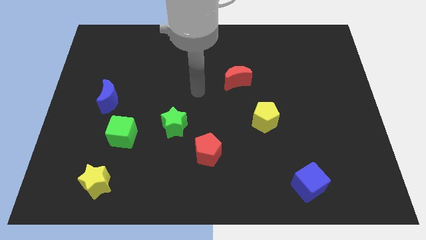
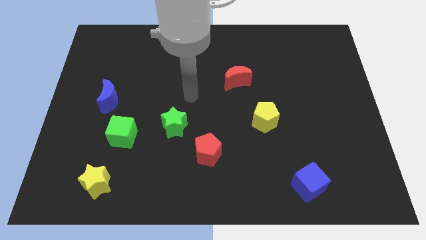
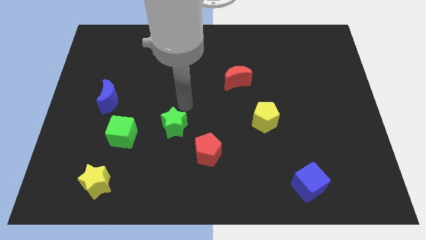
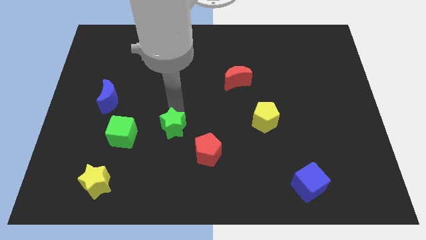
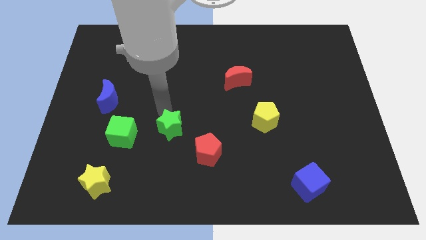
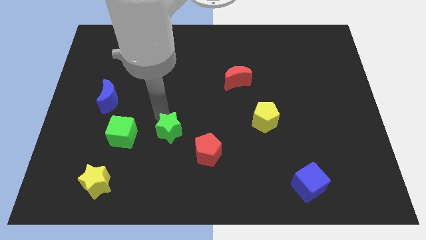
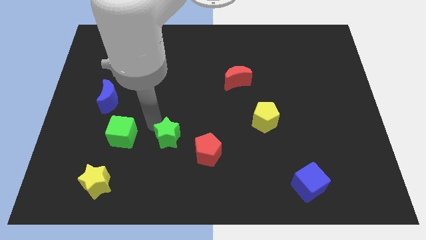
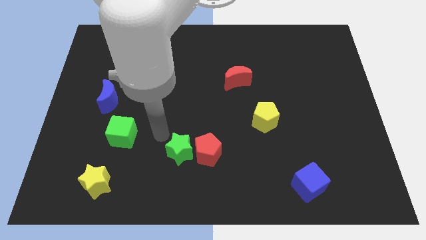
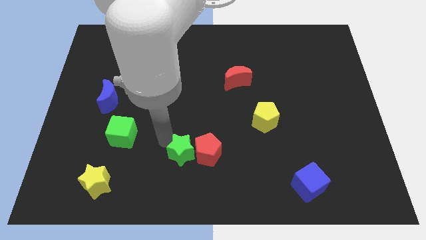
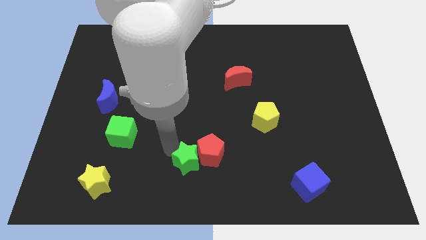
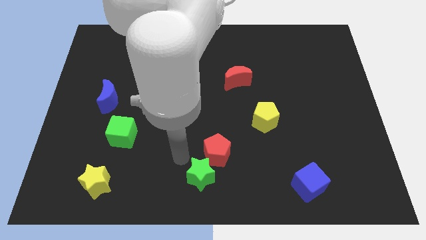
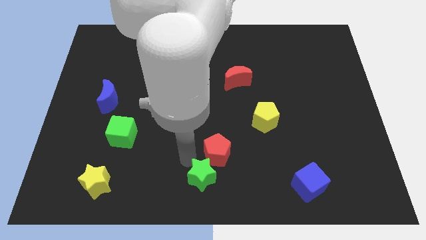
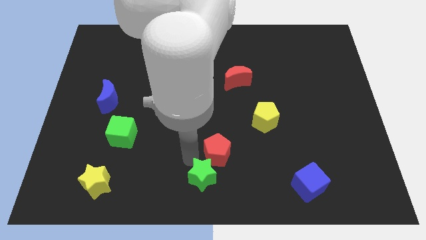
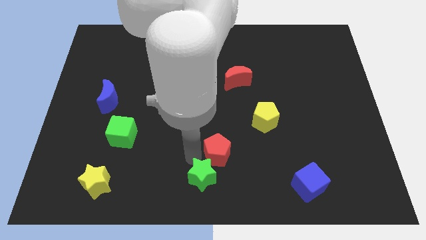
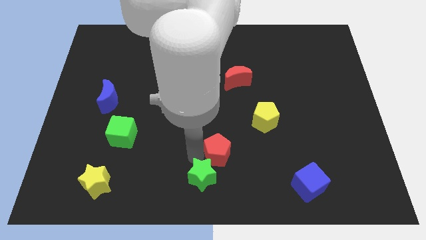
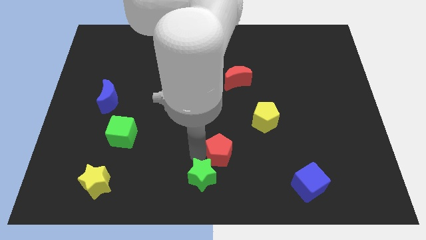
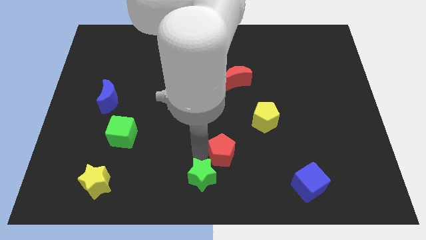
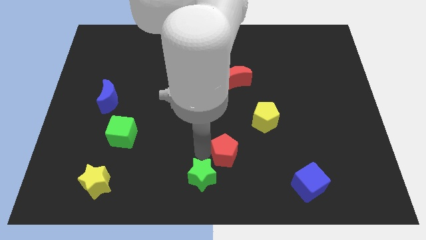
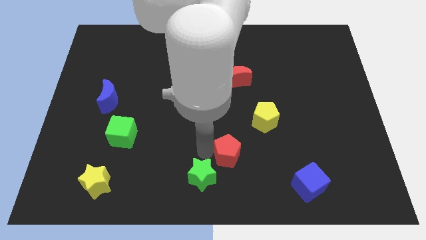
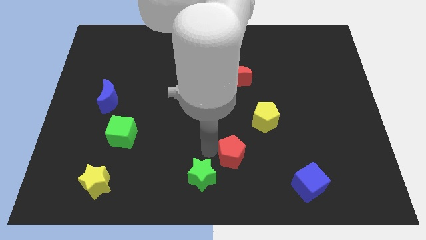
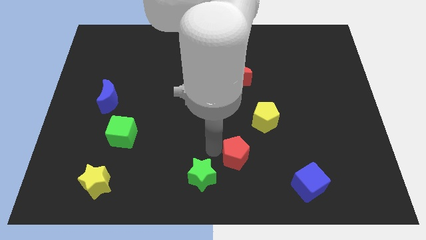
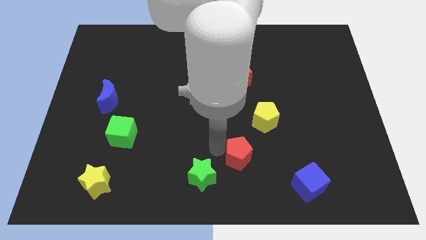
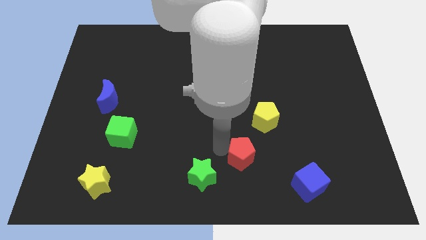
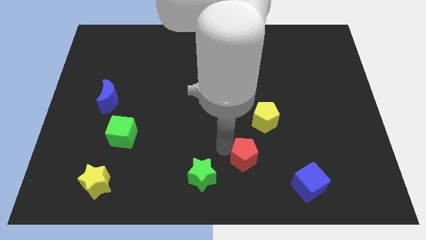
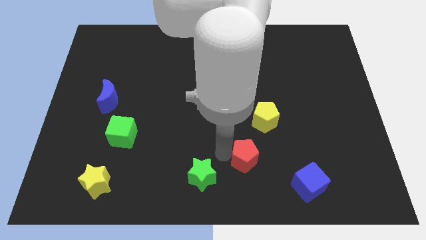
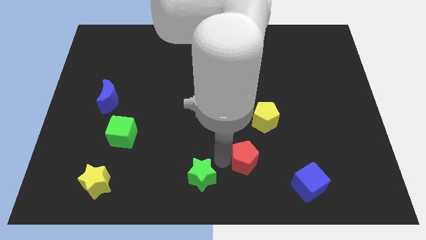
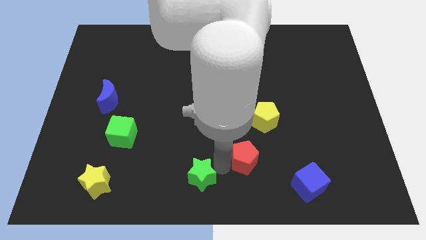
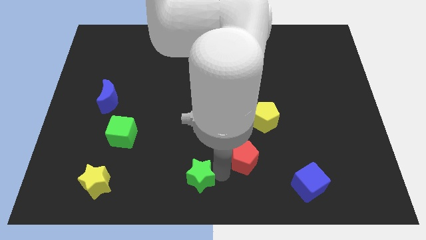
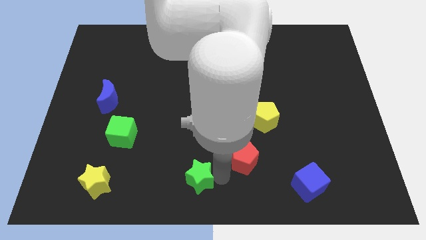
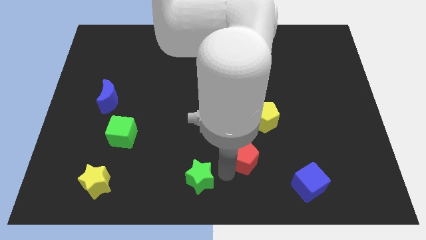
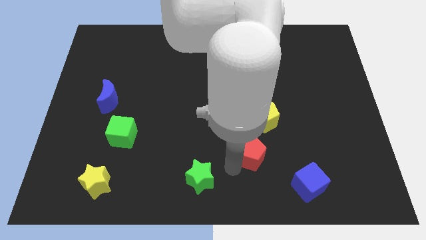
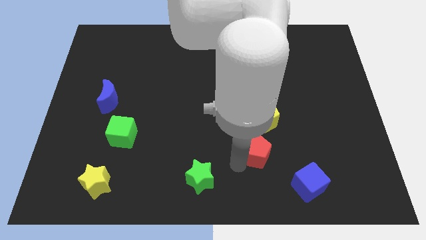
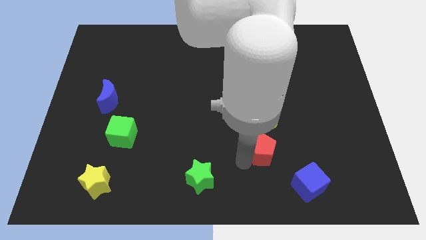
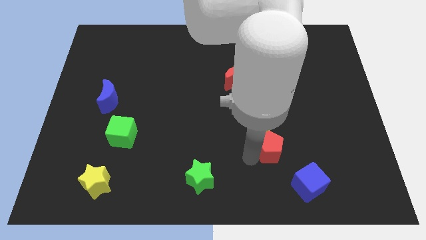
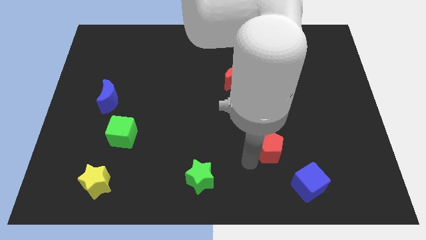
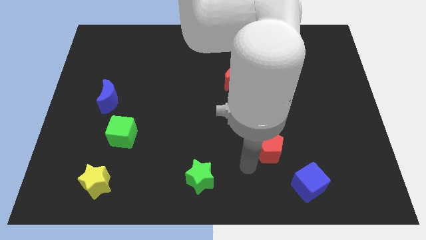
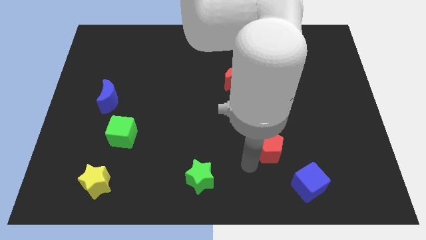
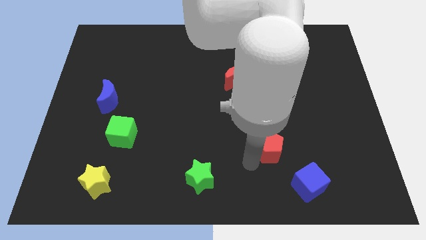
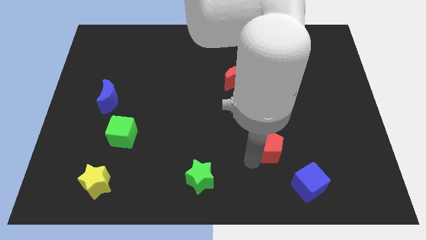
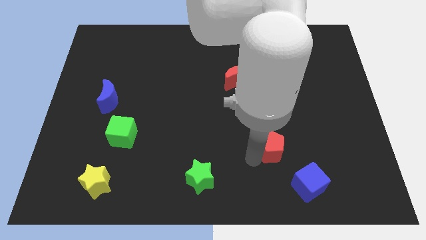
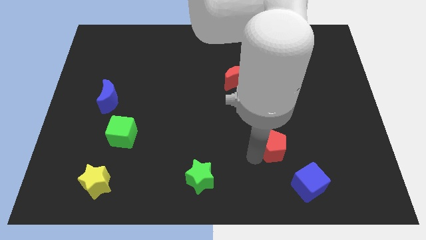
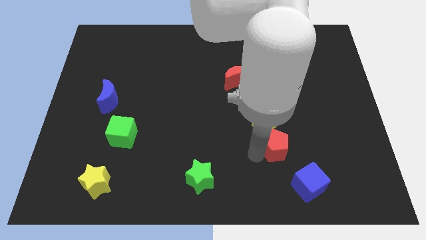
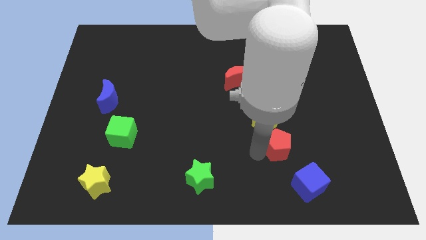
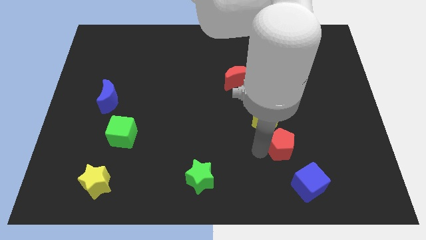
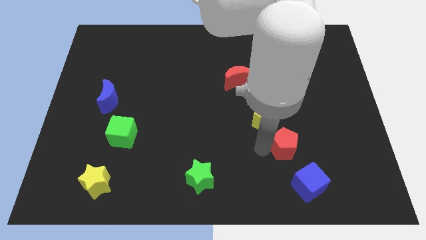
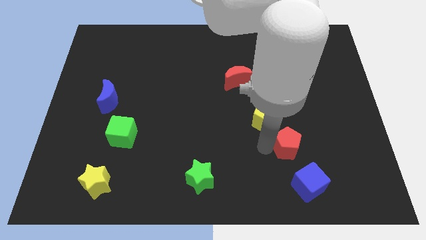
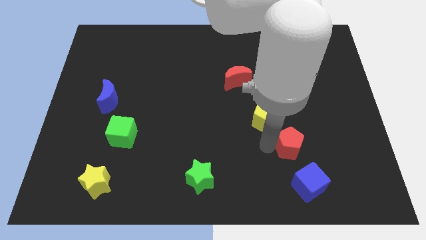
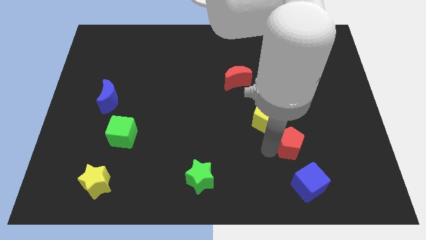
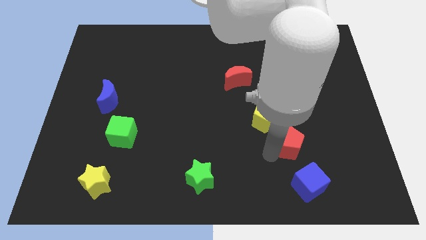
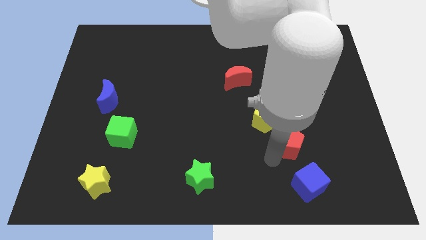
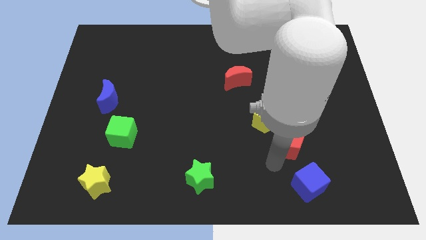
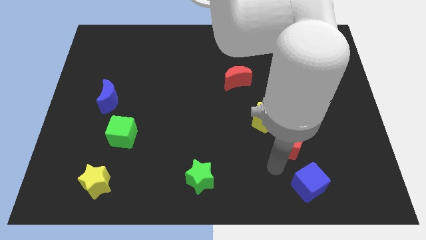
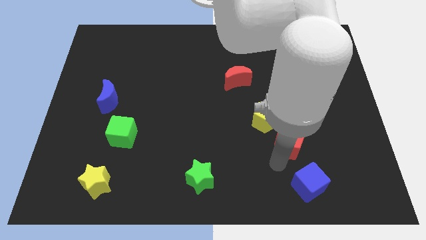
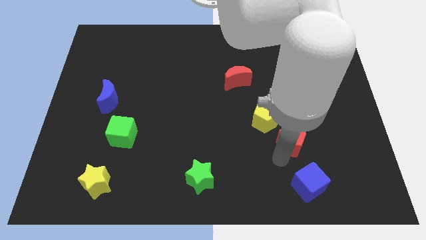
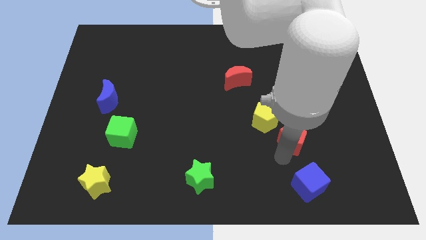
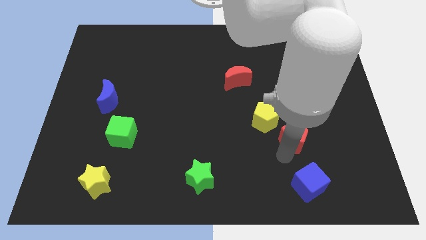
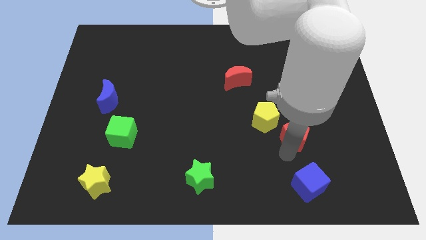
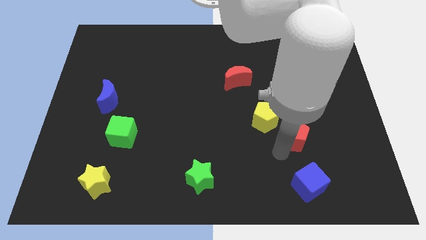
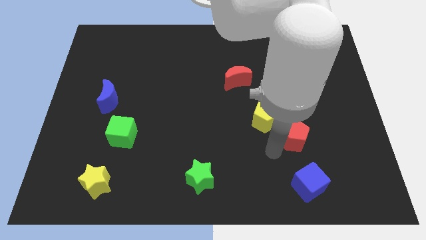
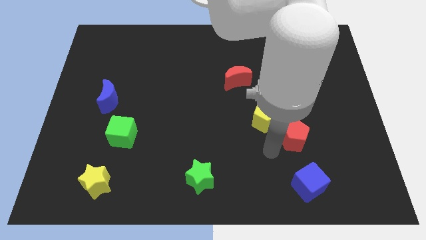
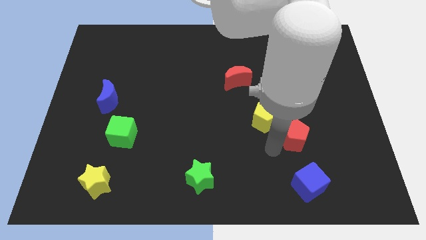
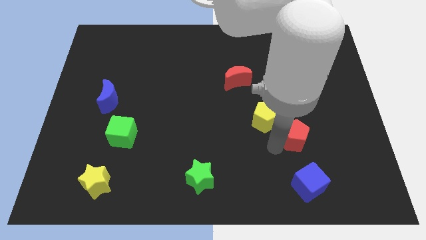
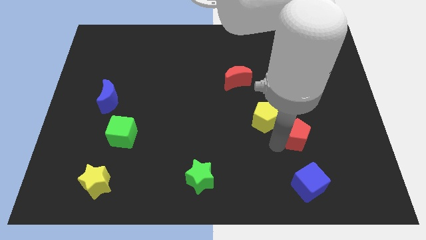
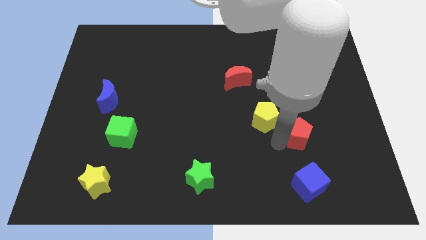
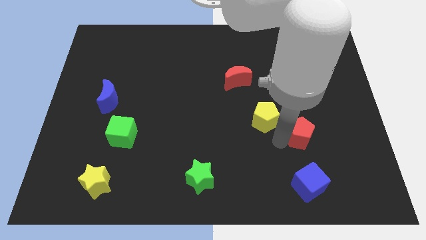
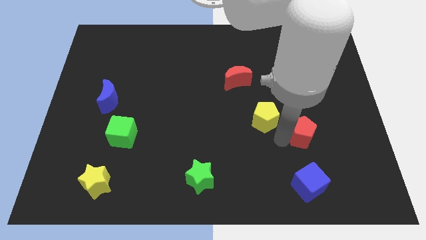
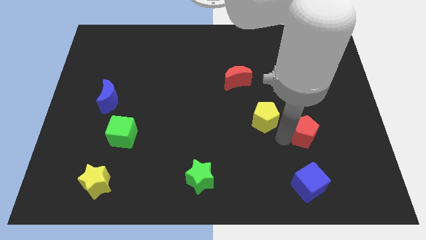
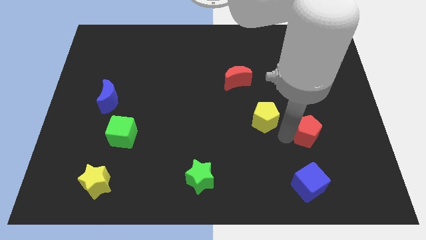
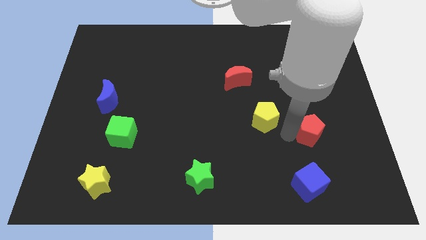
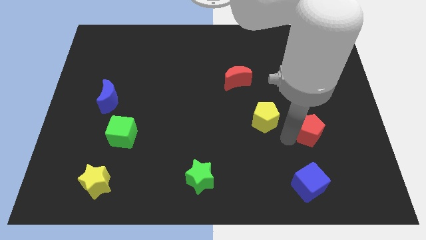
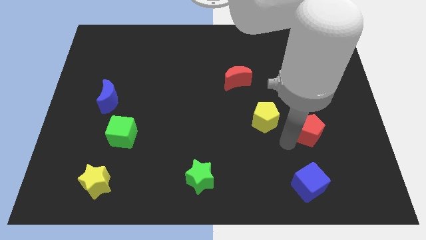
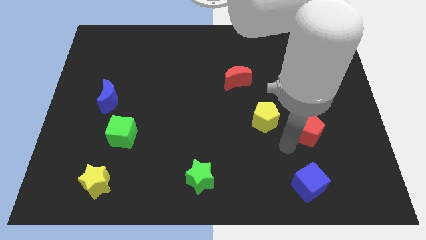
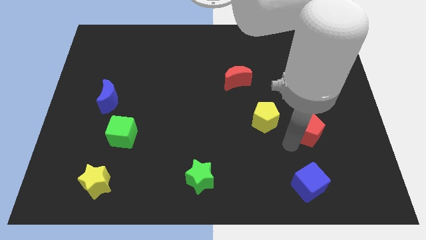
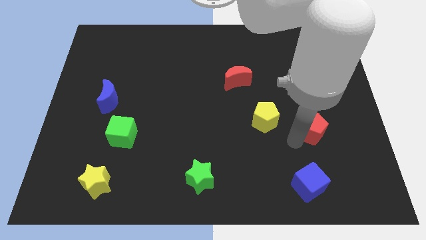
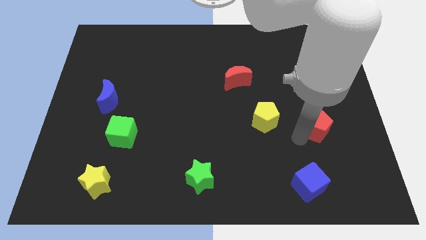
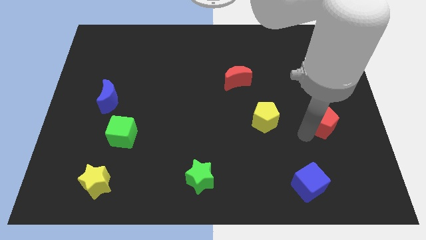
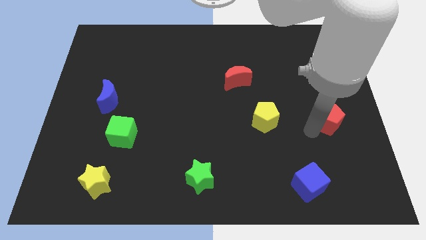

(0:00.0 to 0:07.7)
move the red pentagon to the right side of the board
